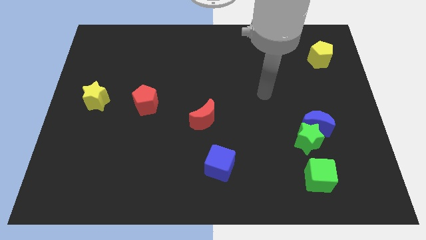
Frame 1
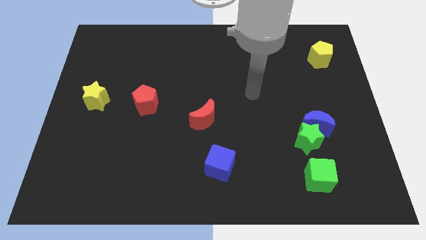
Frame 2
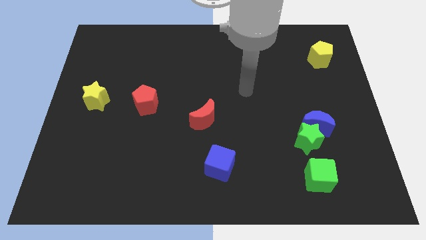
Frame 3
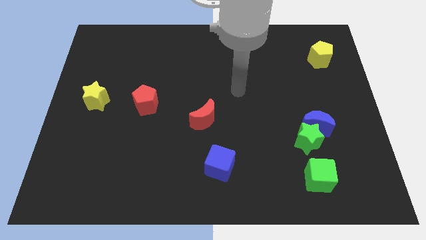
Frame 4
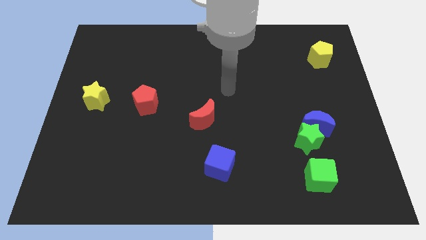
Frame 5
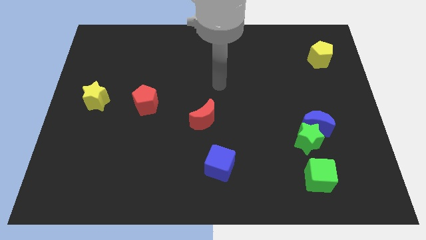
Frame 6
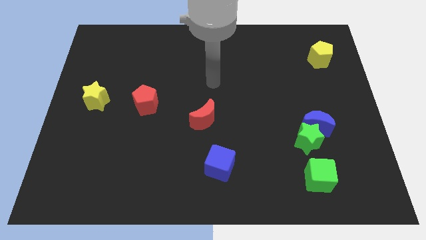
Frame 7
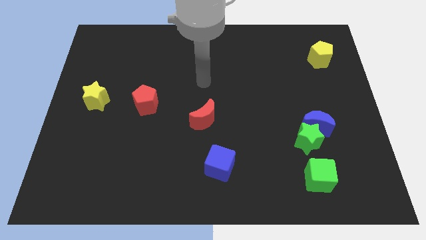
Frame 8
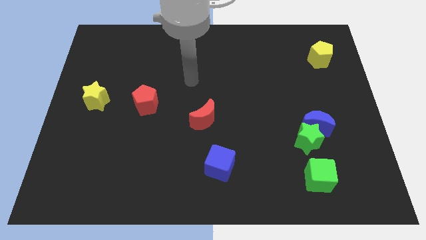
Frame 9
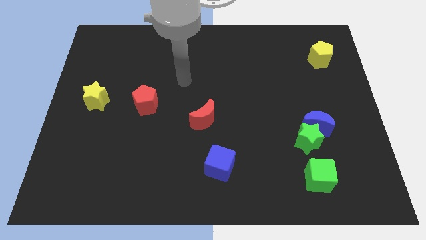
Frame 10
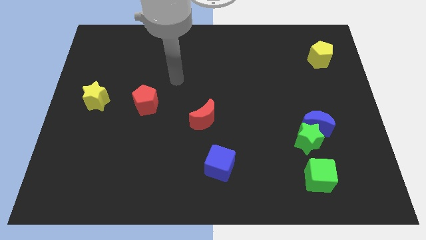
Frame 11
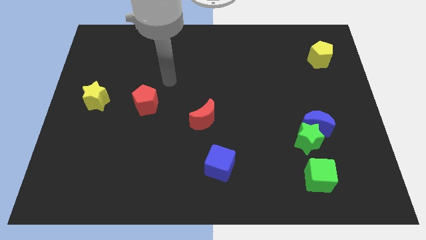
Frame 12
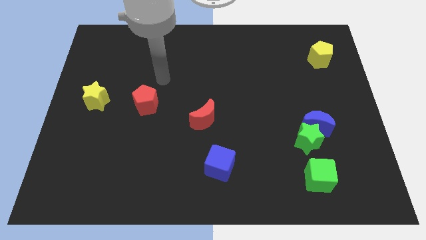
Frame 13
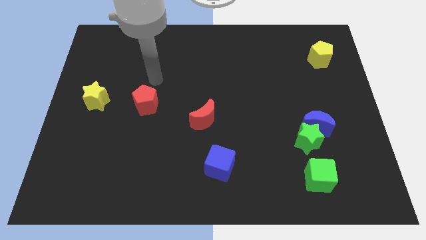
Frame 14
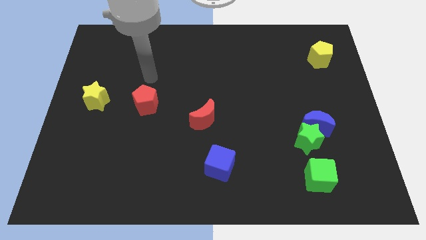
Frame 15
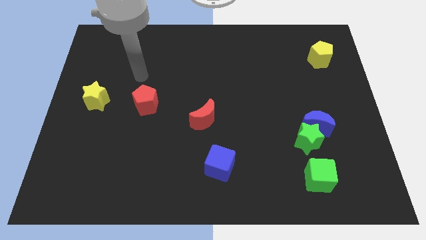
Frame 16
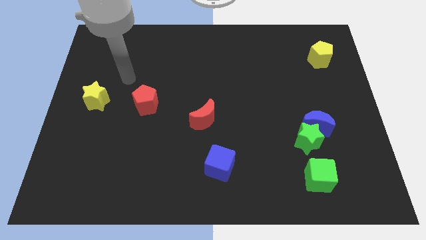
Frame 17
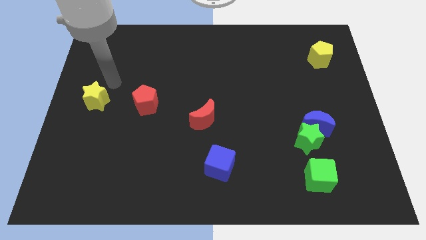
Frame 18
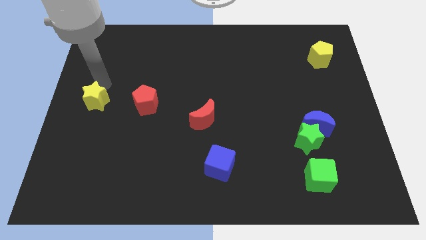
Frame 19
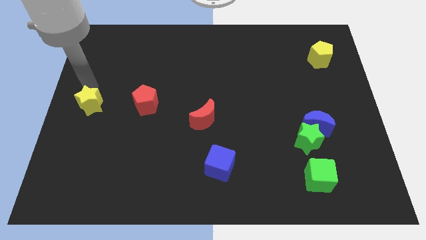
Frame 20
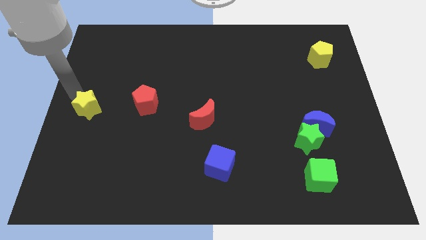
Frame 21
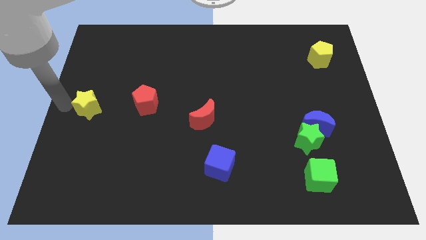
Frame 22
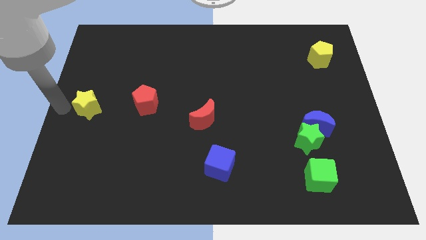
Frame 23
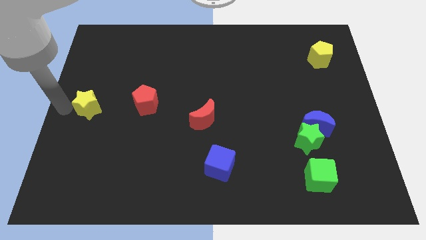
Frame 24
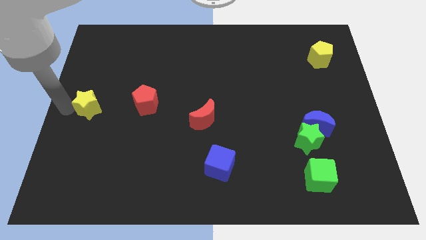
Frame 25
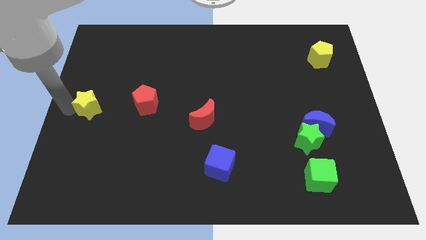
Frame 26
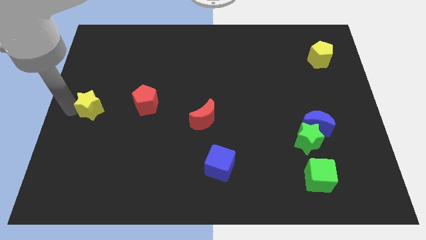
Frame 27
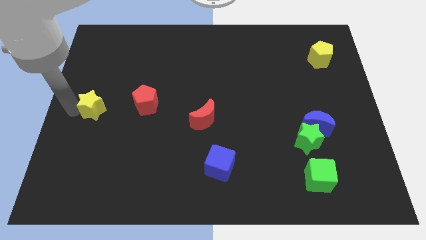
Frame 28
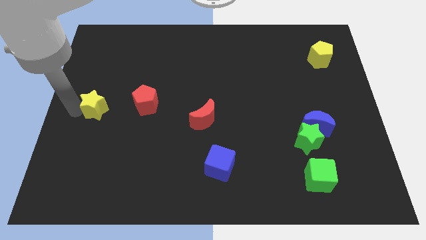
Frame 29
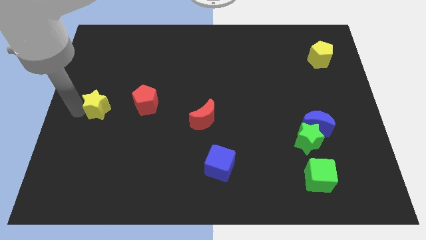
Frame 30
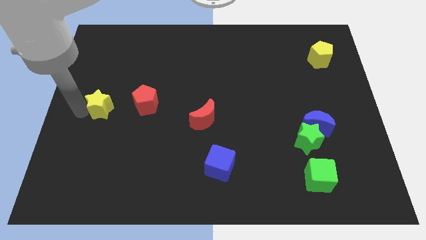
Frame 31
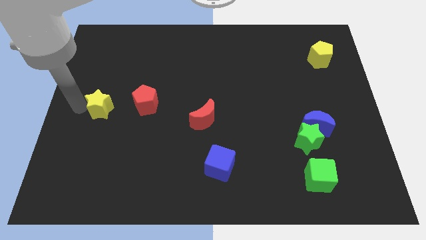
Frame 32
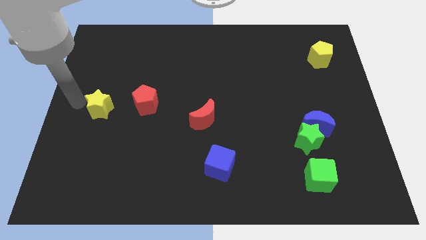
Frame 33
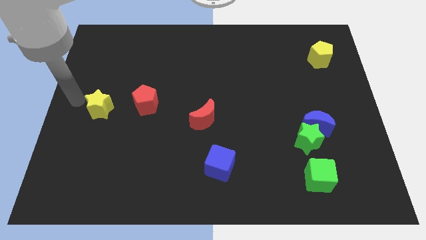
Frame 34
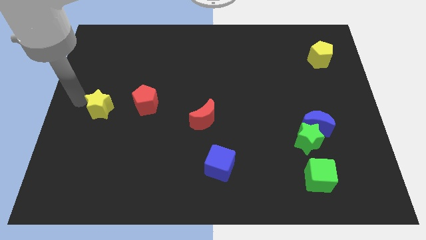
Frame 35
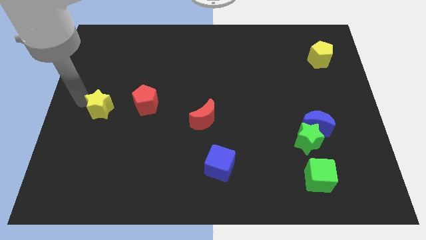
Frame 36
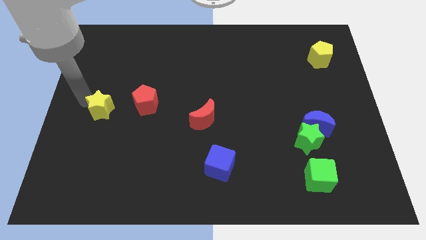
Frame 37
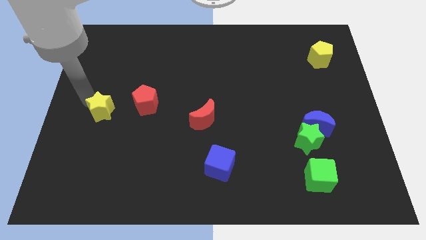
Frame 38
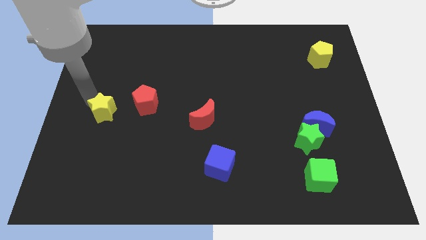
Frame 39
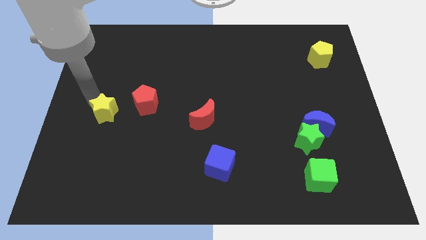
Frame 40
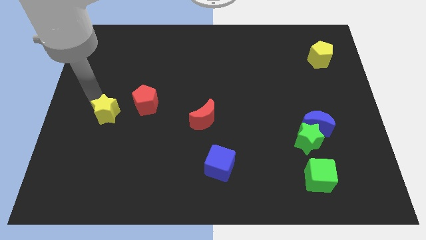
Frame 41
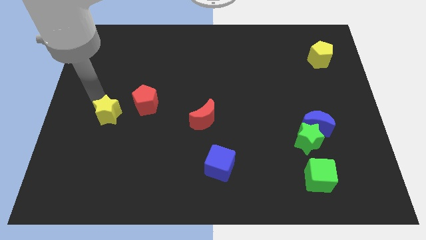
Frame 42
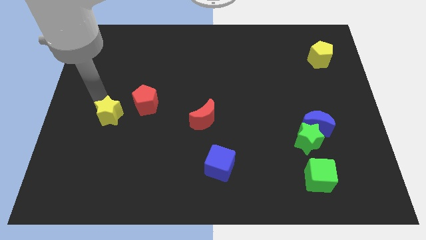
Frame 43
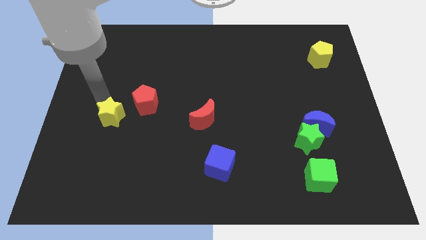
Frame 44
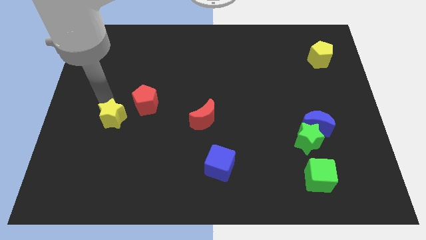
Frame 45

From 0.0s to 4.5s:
slide the yellow star diagonally downwards and right somewhat

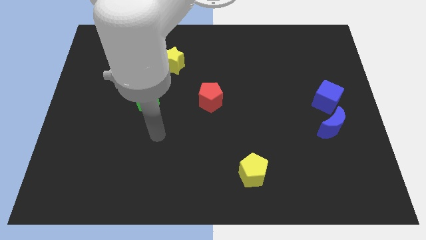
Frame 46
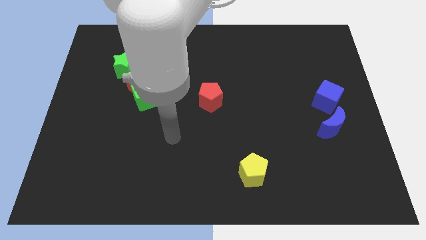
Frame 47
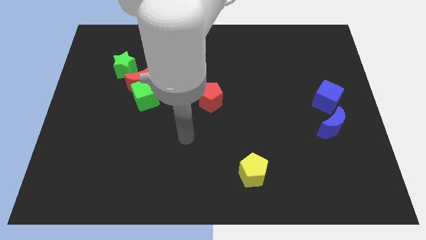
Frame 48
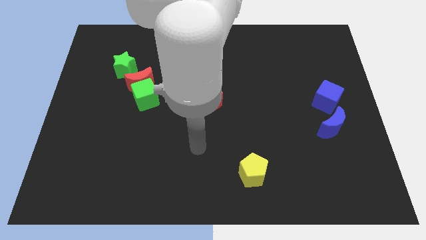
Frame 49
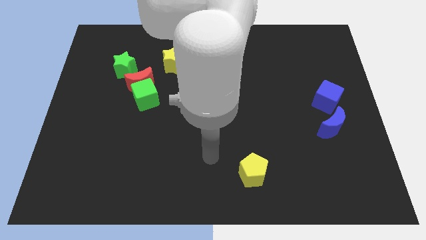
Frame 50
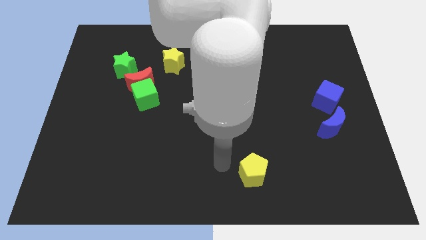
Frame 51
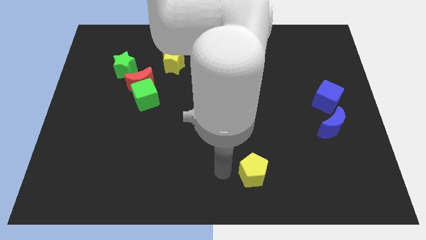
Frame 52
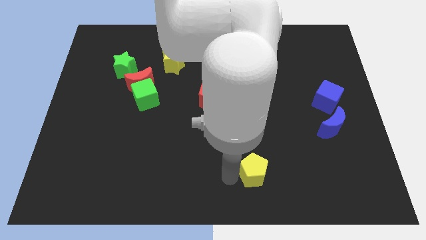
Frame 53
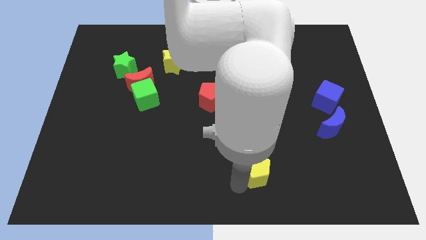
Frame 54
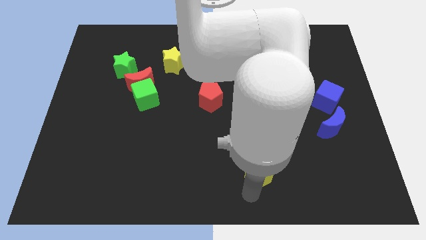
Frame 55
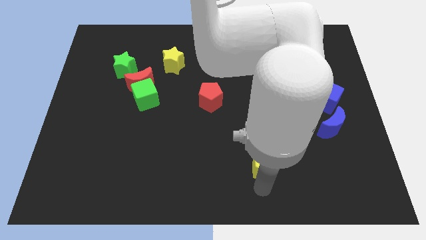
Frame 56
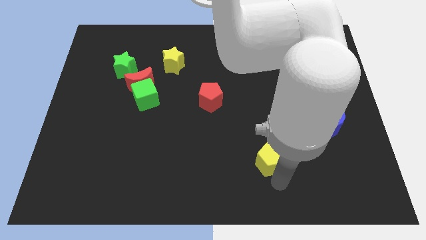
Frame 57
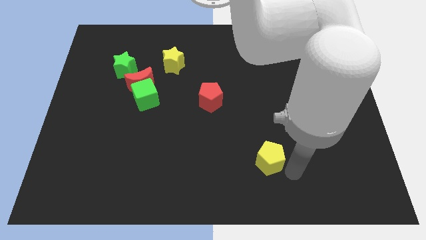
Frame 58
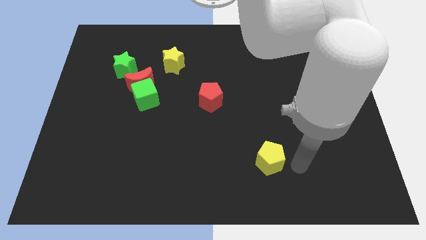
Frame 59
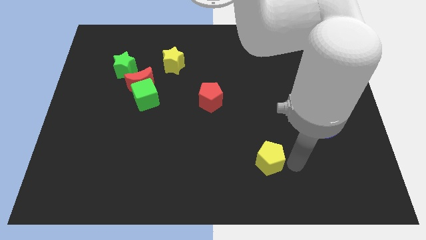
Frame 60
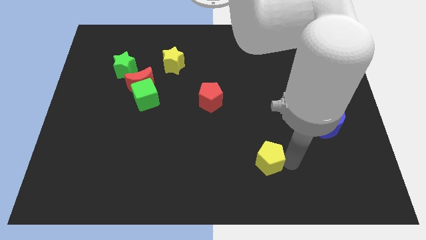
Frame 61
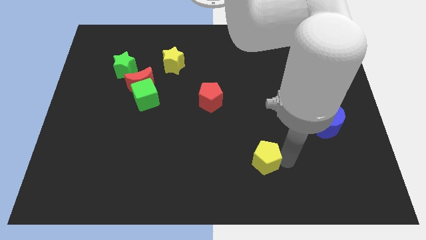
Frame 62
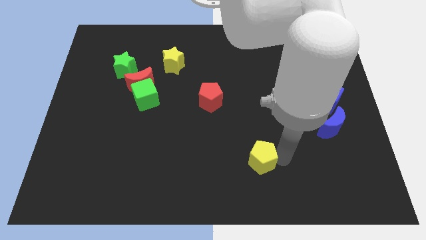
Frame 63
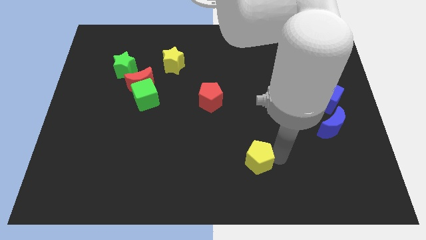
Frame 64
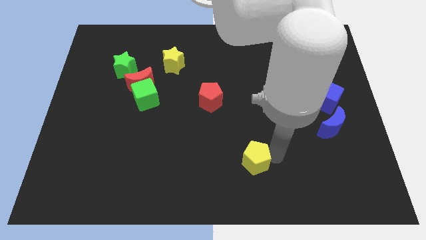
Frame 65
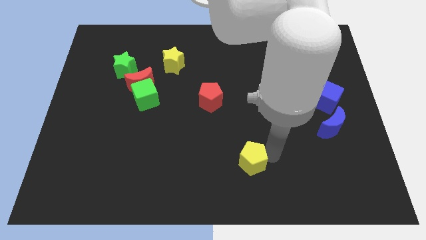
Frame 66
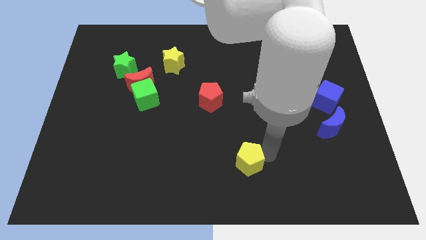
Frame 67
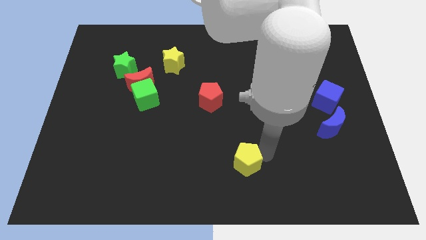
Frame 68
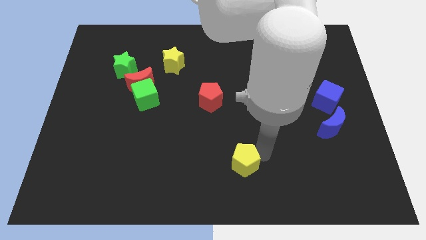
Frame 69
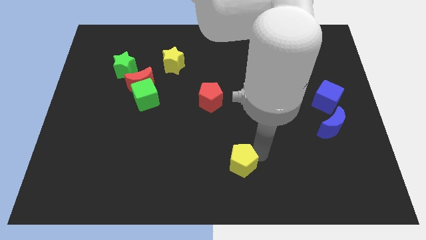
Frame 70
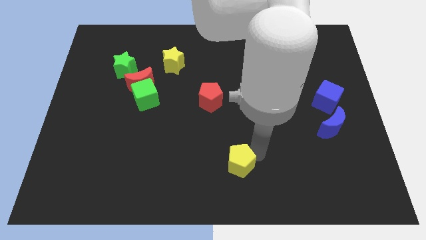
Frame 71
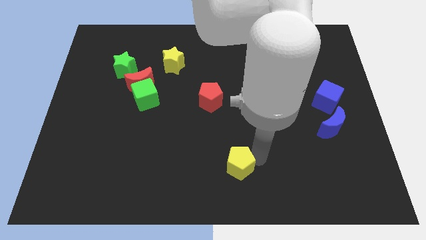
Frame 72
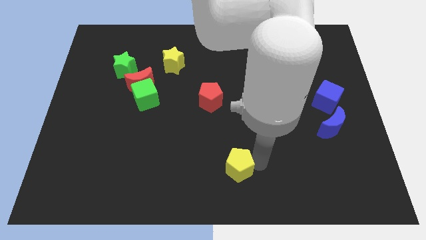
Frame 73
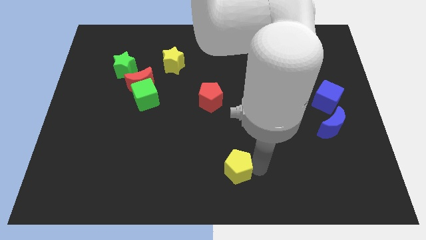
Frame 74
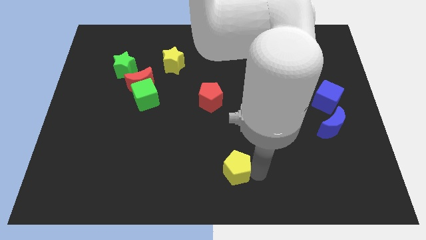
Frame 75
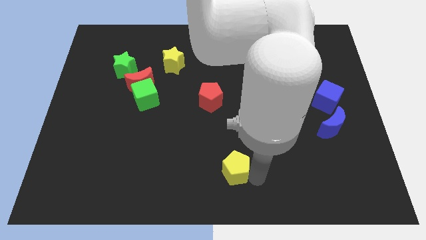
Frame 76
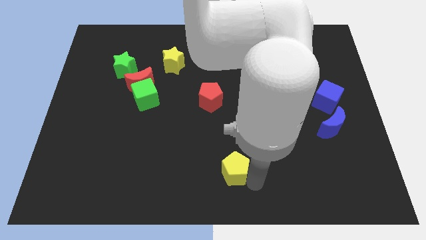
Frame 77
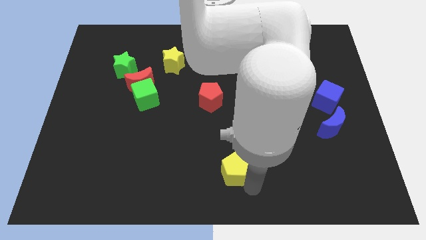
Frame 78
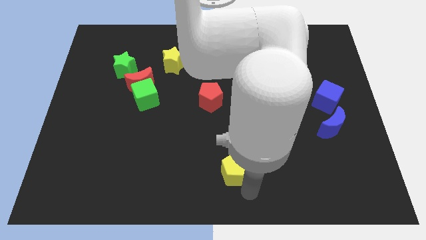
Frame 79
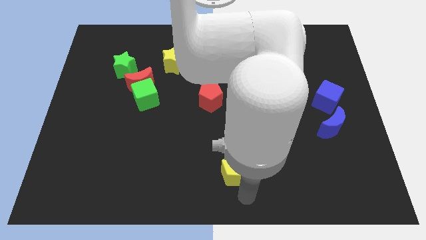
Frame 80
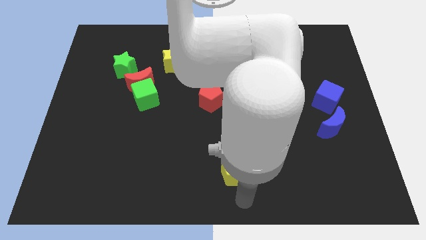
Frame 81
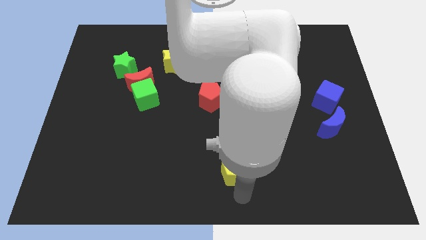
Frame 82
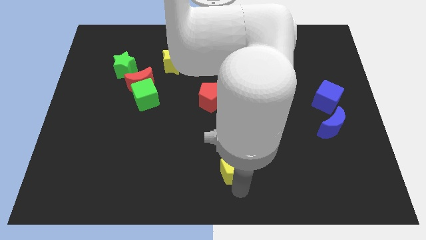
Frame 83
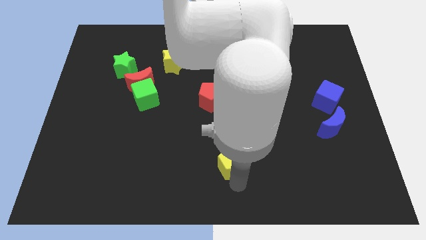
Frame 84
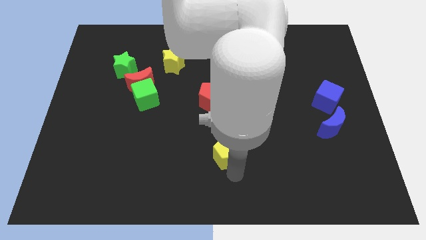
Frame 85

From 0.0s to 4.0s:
slide the yellow pentagon diagonally up and to the left slightly
